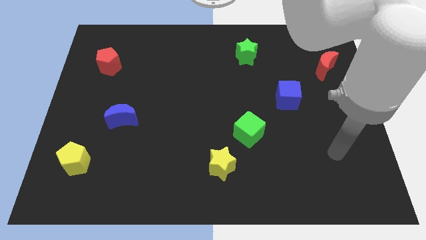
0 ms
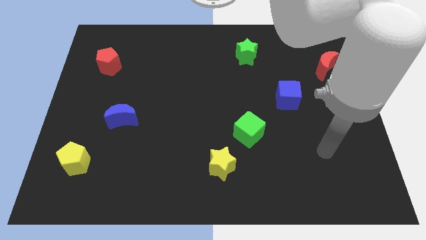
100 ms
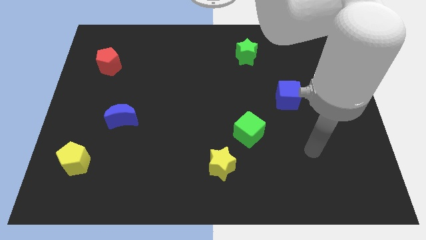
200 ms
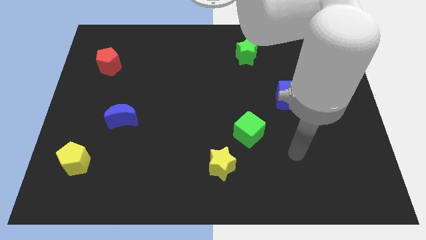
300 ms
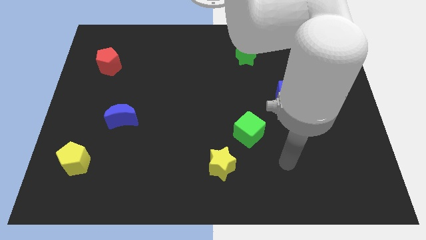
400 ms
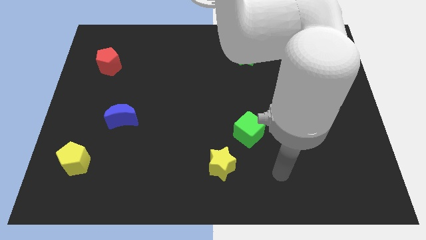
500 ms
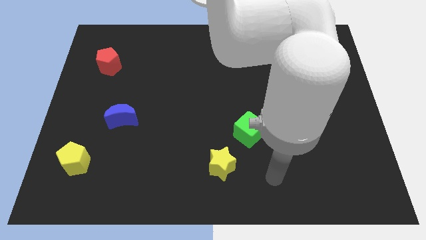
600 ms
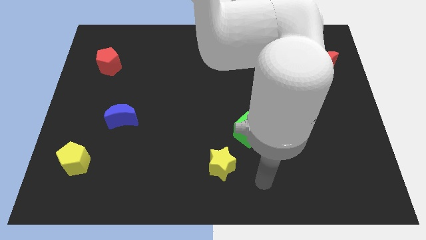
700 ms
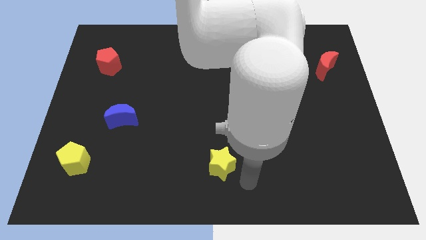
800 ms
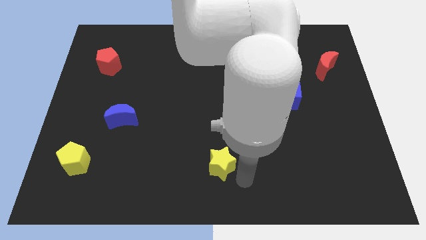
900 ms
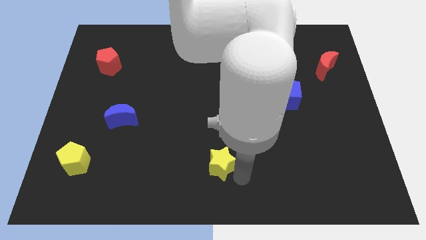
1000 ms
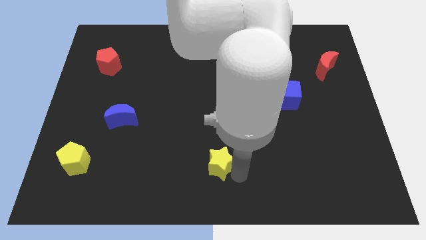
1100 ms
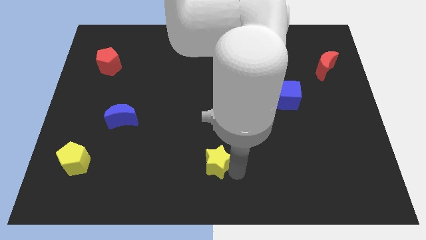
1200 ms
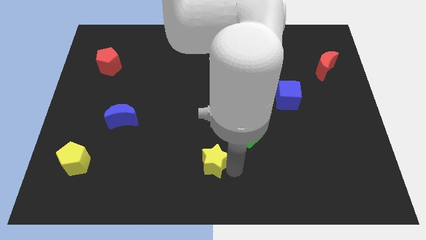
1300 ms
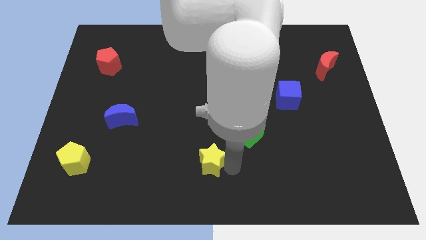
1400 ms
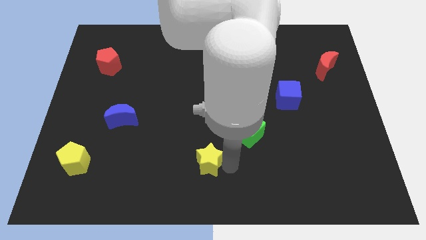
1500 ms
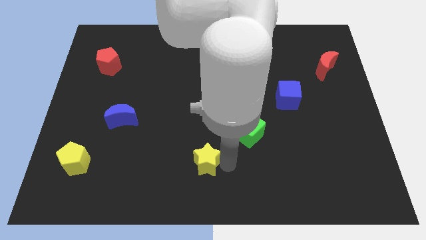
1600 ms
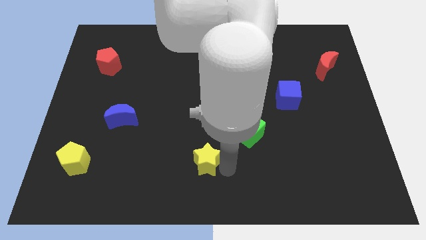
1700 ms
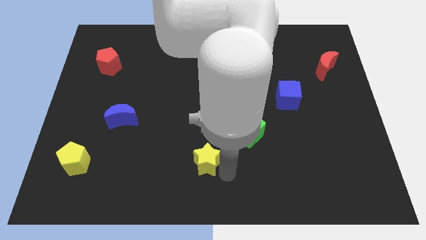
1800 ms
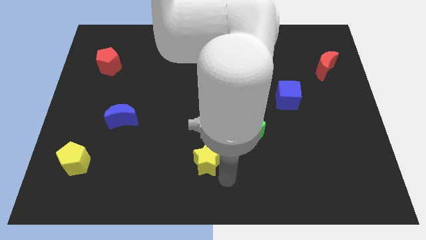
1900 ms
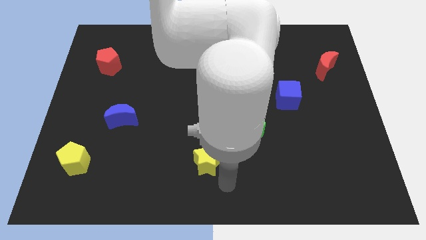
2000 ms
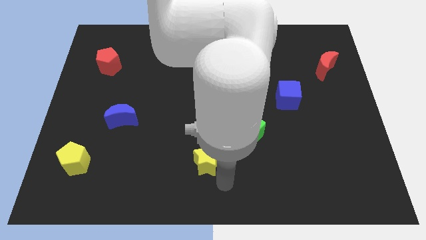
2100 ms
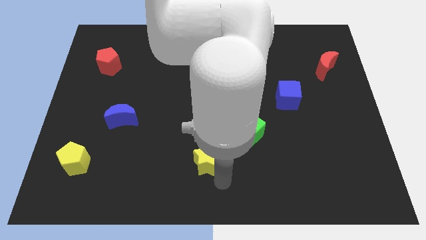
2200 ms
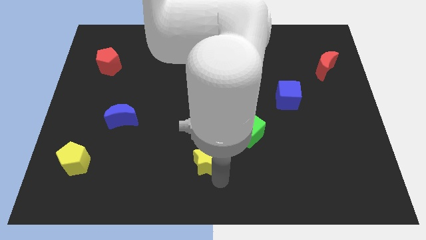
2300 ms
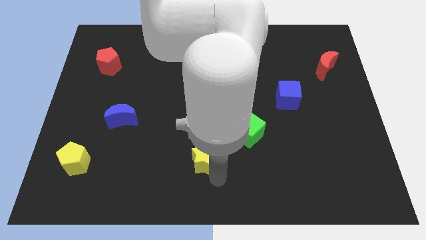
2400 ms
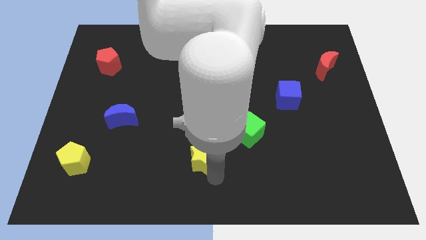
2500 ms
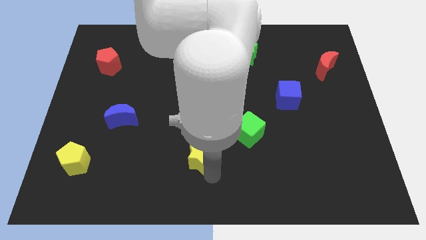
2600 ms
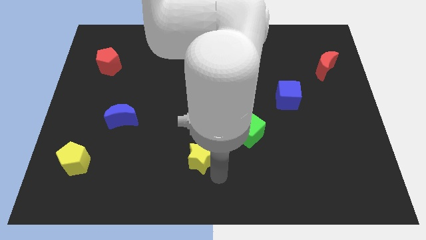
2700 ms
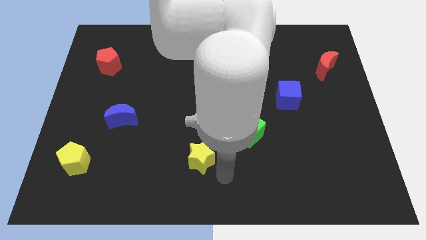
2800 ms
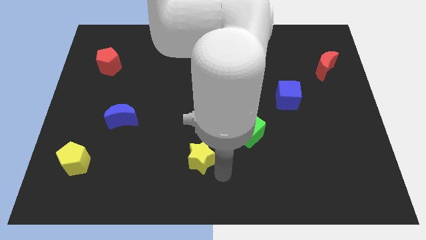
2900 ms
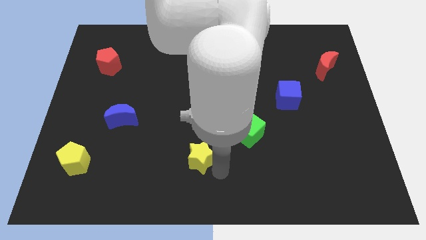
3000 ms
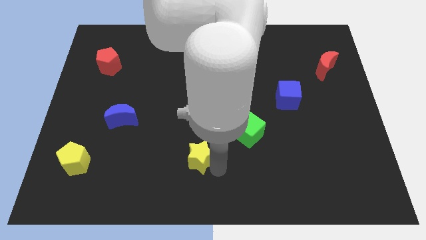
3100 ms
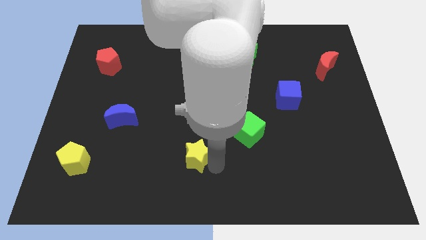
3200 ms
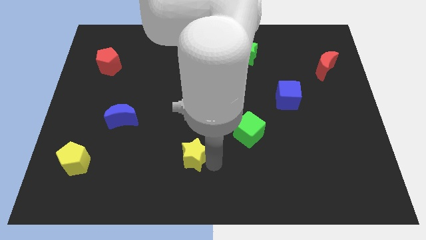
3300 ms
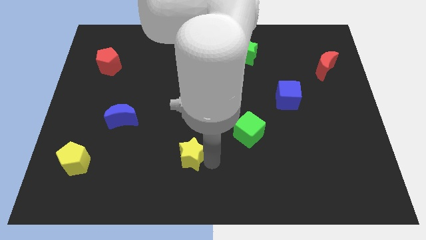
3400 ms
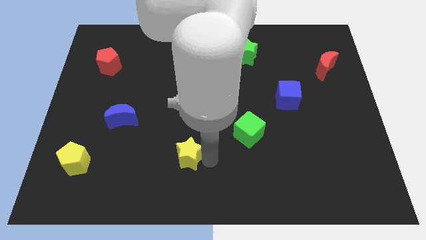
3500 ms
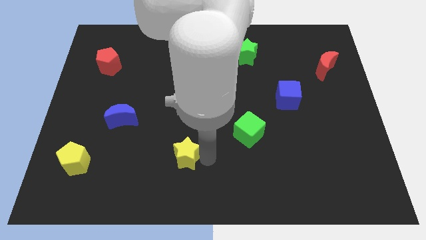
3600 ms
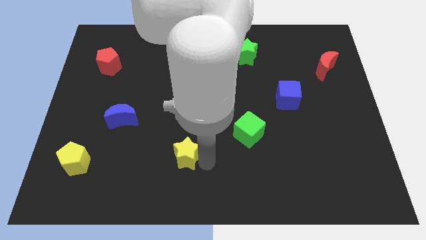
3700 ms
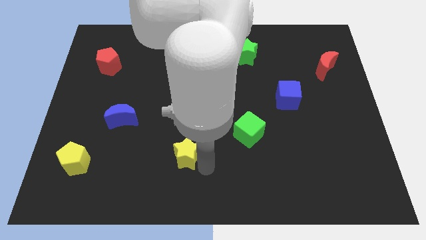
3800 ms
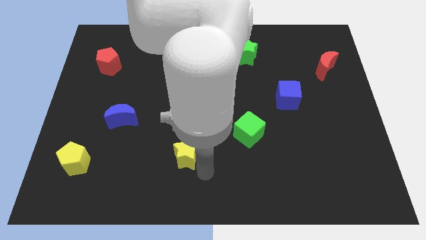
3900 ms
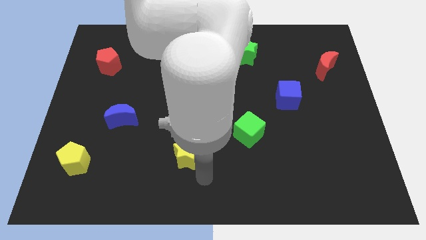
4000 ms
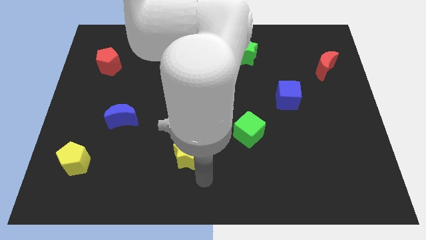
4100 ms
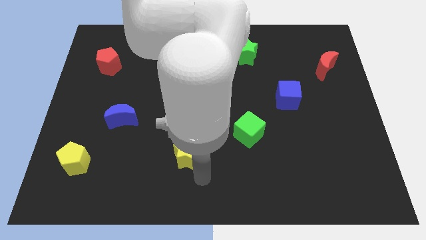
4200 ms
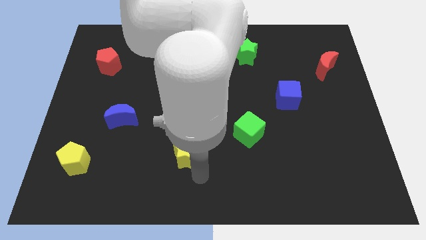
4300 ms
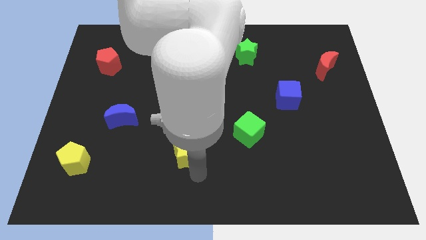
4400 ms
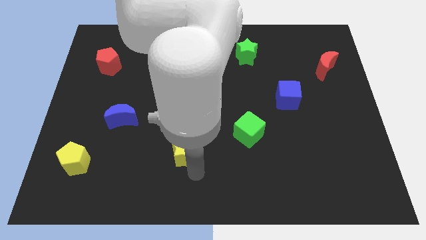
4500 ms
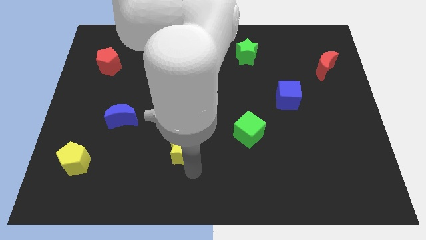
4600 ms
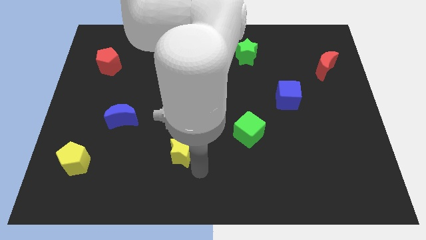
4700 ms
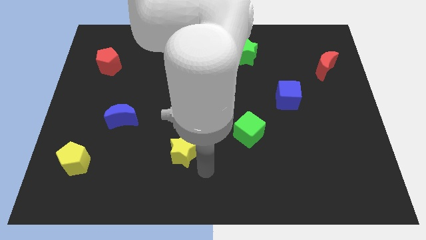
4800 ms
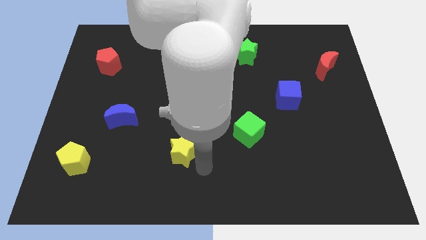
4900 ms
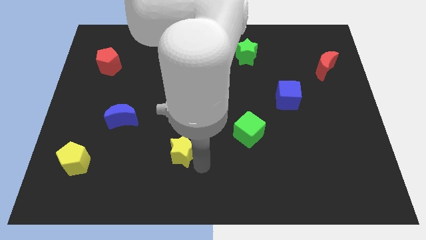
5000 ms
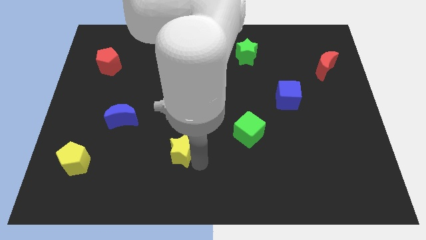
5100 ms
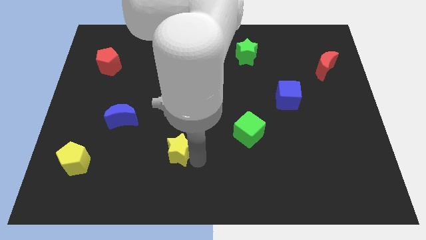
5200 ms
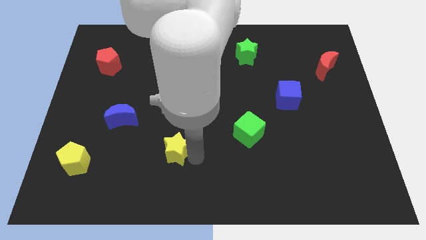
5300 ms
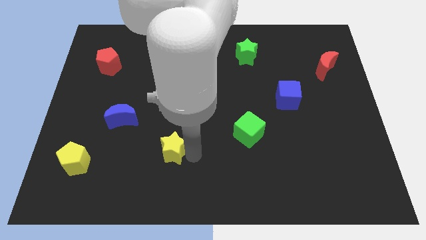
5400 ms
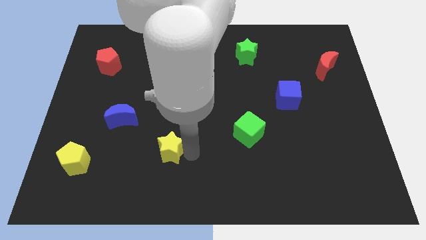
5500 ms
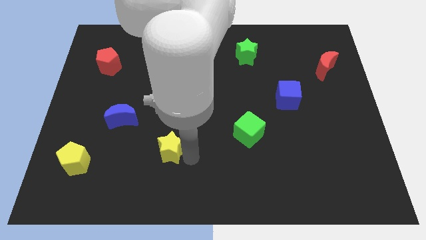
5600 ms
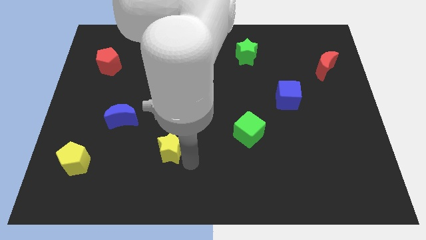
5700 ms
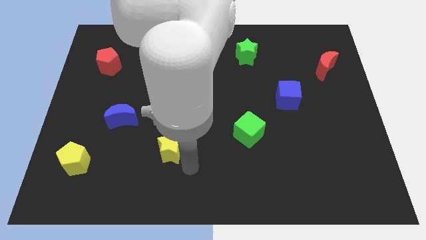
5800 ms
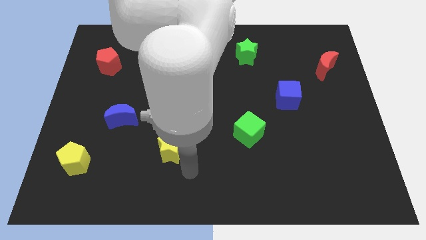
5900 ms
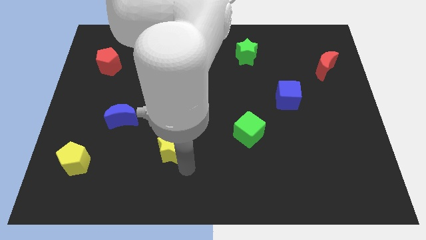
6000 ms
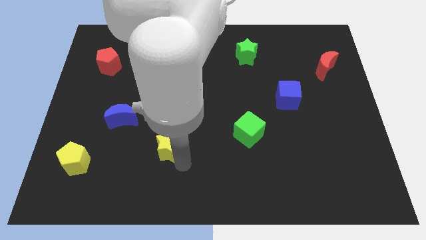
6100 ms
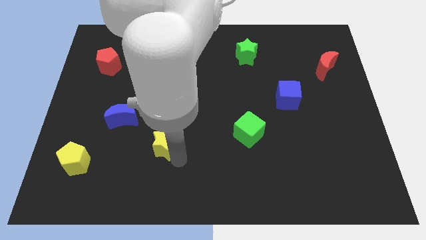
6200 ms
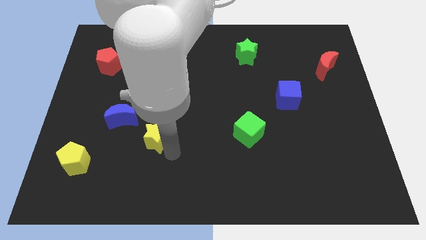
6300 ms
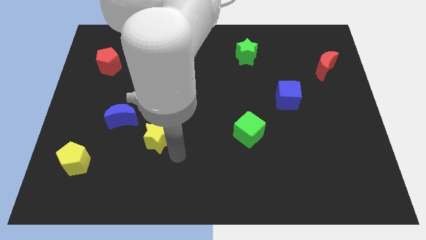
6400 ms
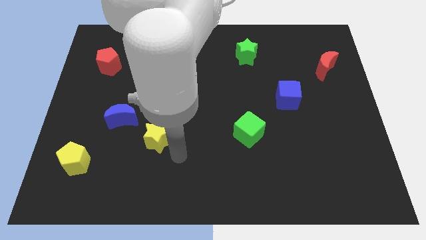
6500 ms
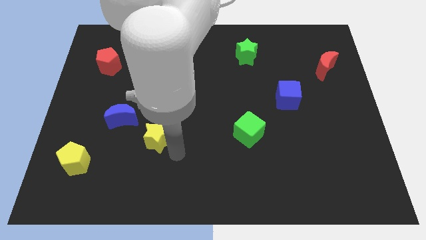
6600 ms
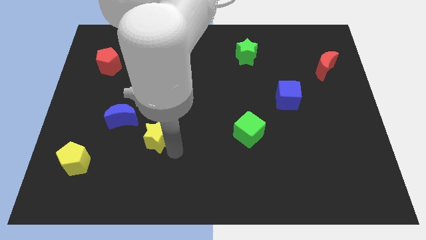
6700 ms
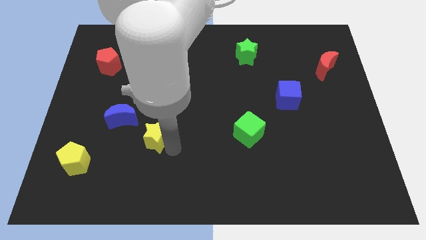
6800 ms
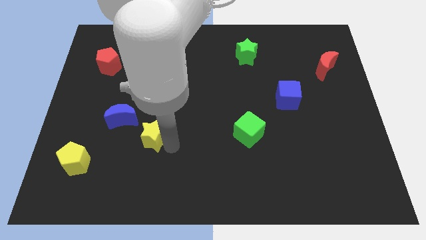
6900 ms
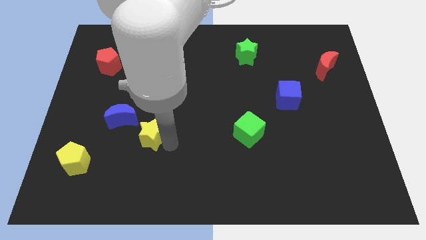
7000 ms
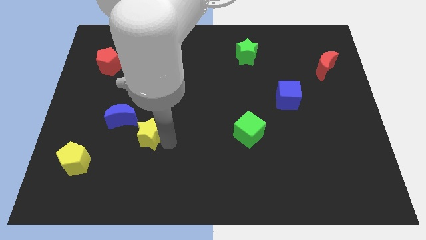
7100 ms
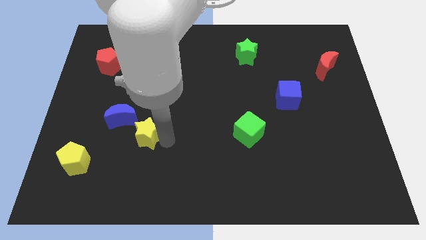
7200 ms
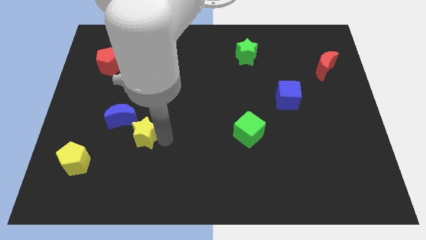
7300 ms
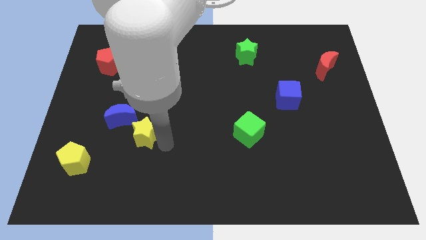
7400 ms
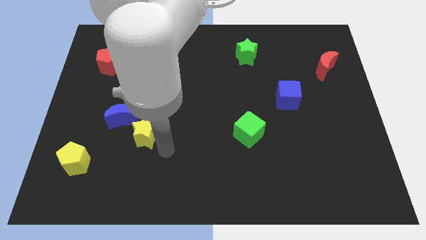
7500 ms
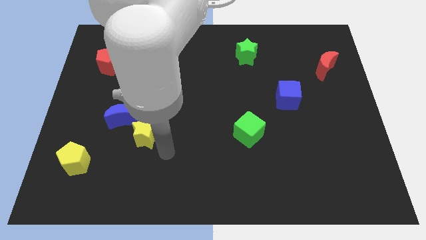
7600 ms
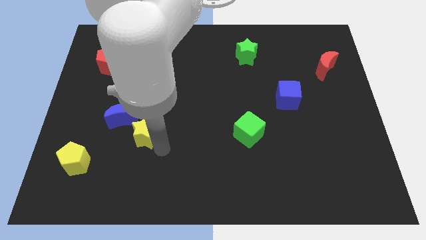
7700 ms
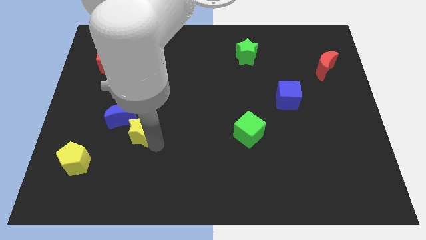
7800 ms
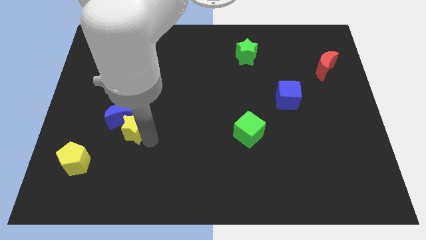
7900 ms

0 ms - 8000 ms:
push the yellow star close to the blue moon
